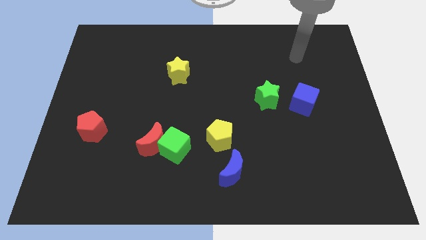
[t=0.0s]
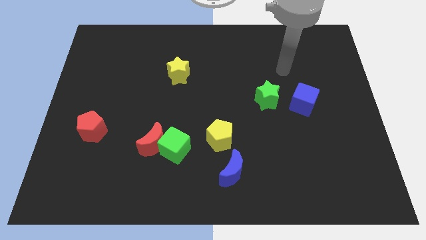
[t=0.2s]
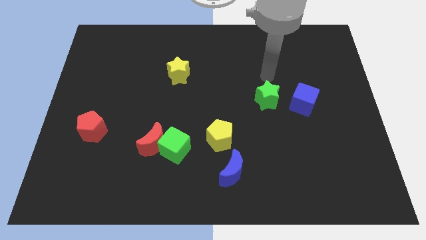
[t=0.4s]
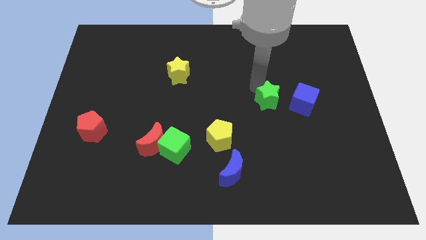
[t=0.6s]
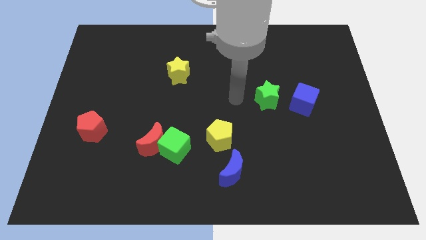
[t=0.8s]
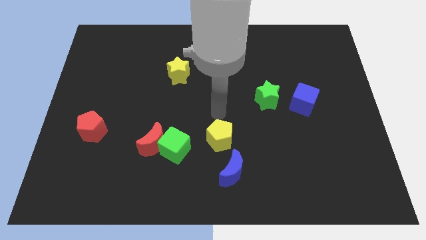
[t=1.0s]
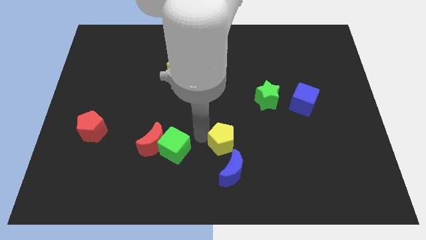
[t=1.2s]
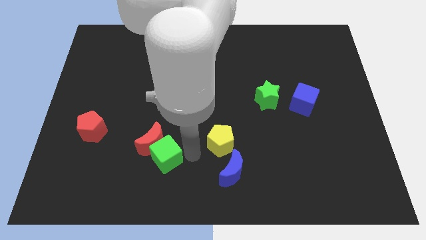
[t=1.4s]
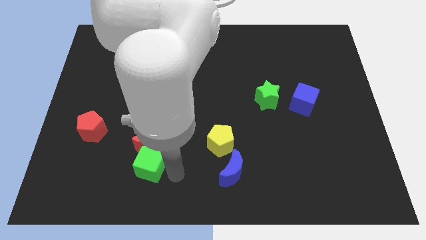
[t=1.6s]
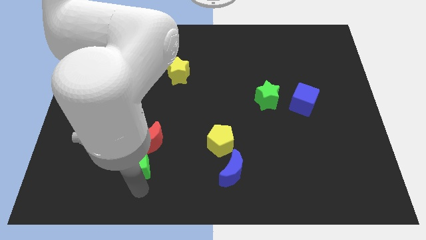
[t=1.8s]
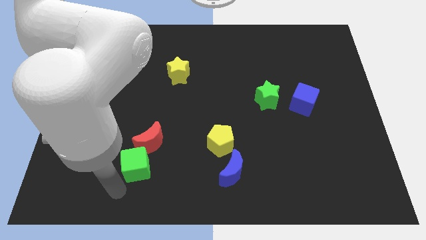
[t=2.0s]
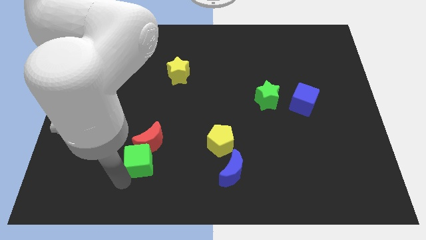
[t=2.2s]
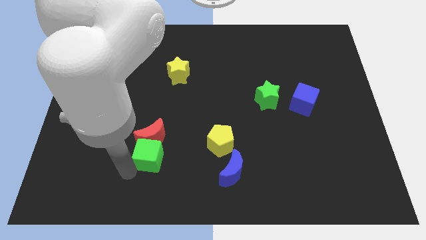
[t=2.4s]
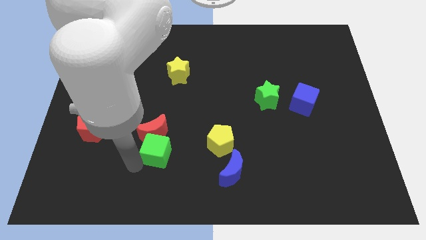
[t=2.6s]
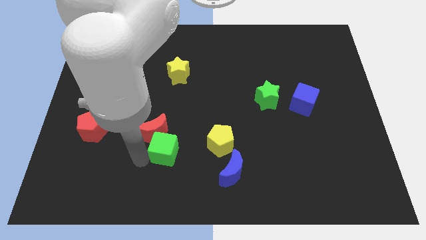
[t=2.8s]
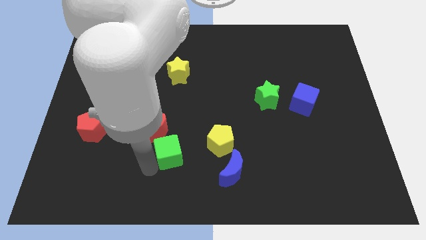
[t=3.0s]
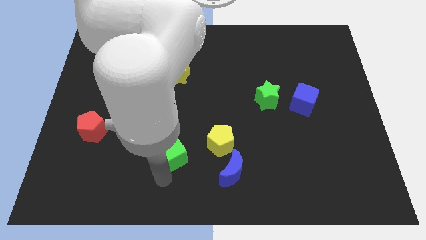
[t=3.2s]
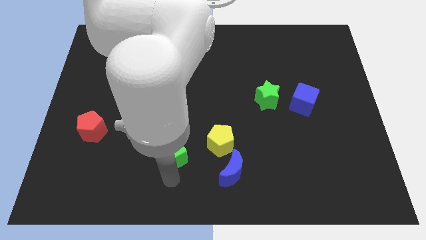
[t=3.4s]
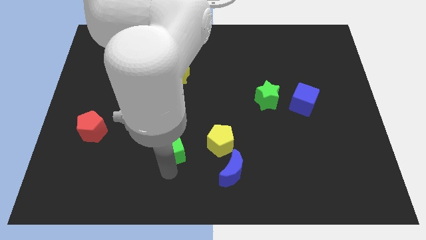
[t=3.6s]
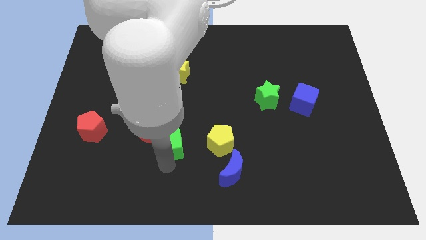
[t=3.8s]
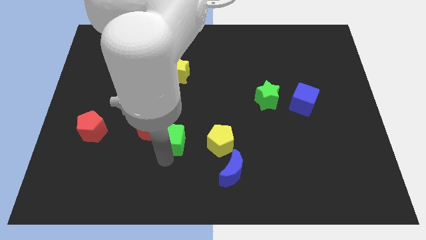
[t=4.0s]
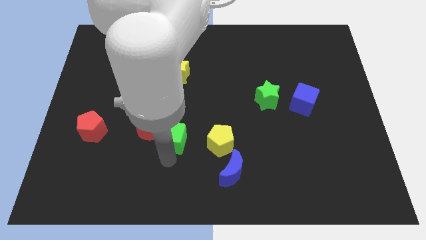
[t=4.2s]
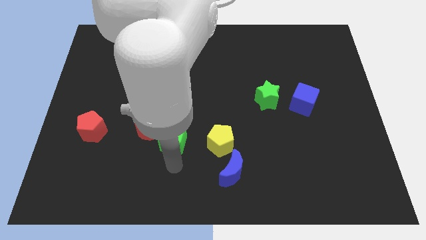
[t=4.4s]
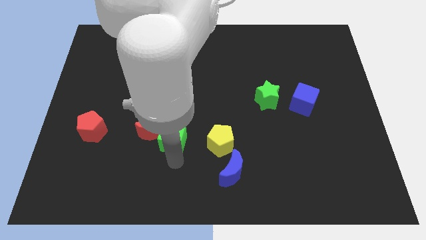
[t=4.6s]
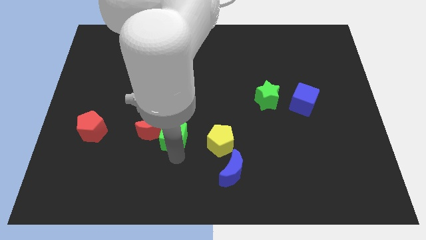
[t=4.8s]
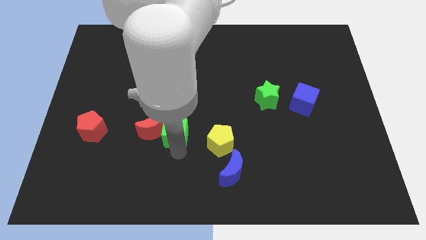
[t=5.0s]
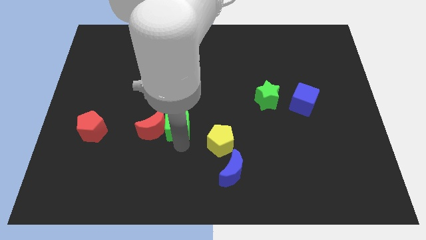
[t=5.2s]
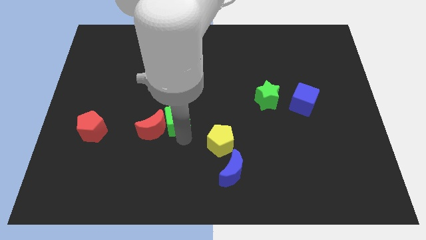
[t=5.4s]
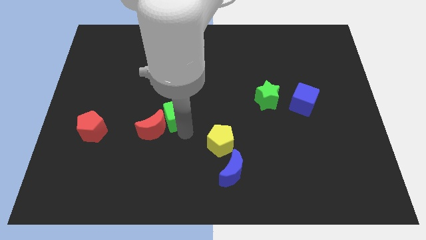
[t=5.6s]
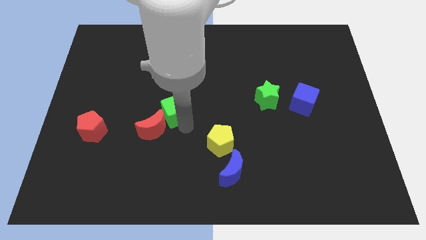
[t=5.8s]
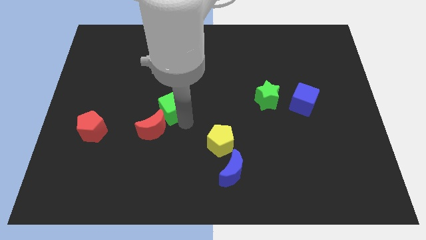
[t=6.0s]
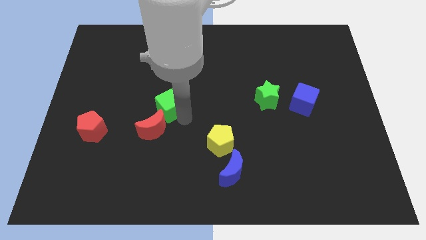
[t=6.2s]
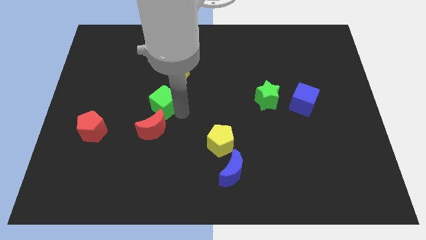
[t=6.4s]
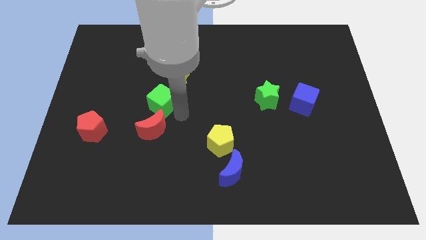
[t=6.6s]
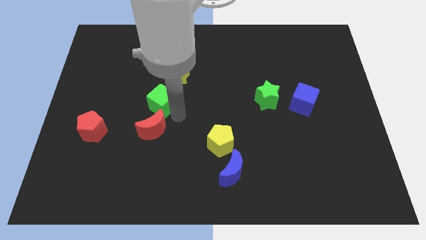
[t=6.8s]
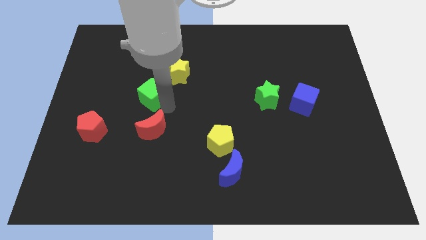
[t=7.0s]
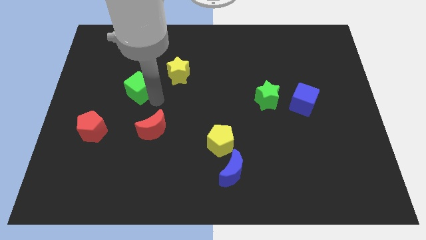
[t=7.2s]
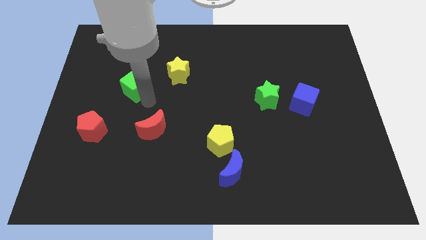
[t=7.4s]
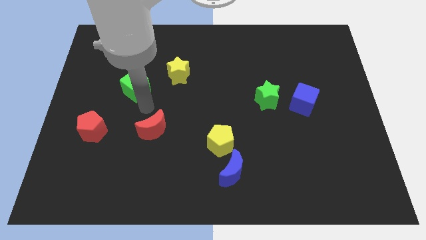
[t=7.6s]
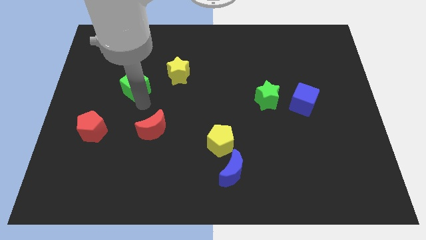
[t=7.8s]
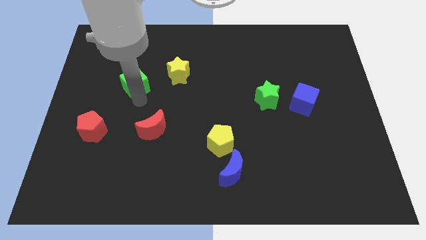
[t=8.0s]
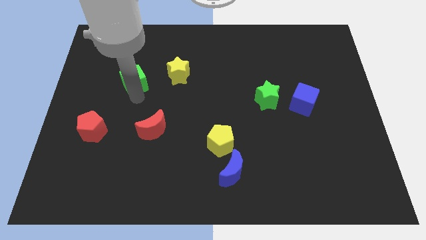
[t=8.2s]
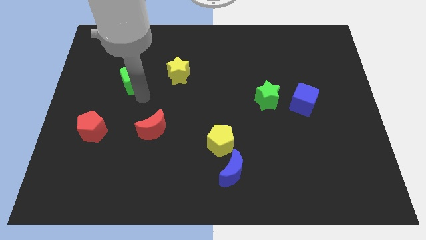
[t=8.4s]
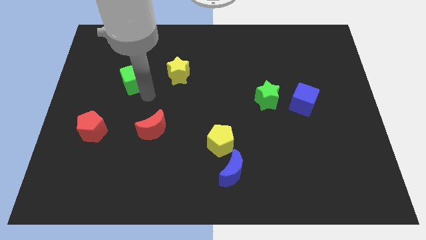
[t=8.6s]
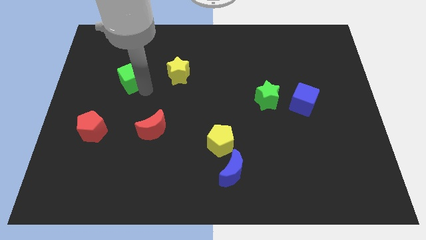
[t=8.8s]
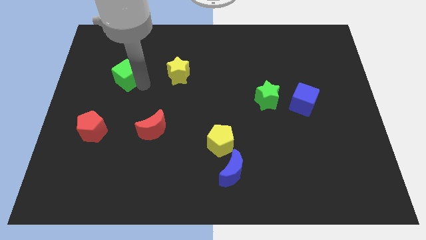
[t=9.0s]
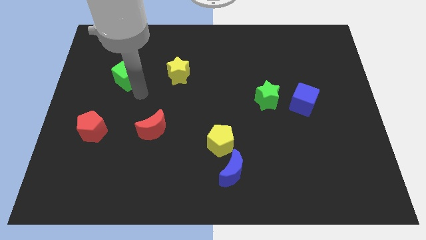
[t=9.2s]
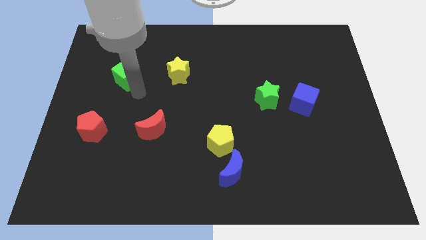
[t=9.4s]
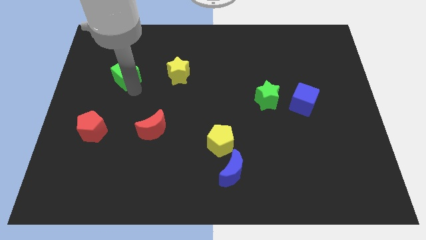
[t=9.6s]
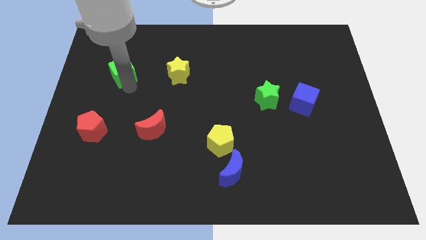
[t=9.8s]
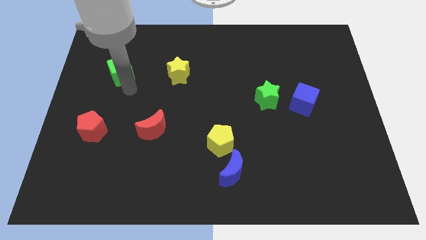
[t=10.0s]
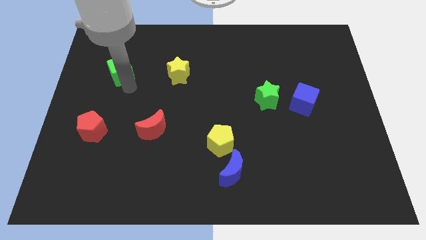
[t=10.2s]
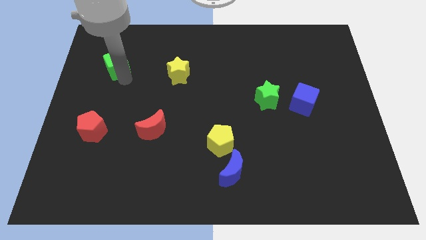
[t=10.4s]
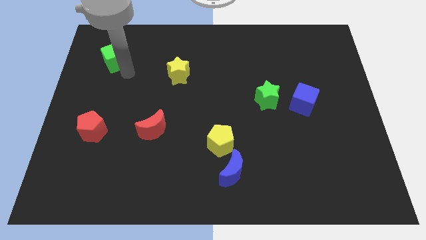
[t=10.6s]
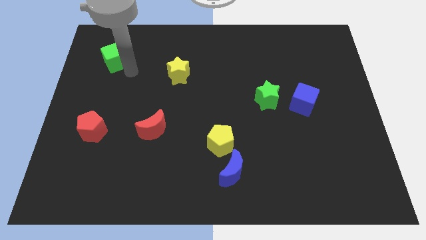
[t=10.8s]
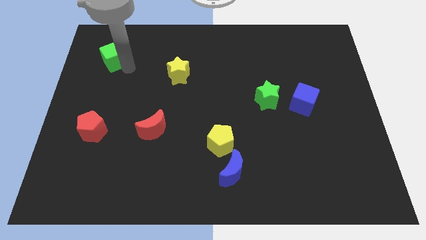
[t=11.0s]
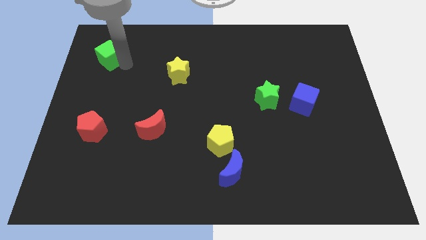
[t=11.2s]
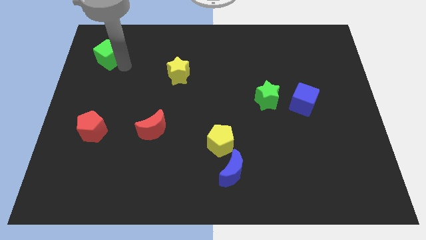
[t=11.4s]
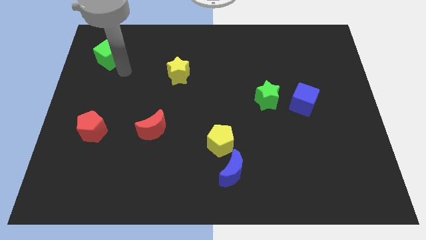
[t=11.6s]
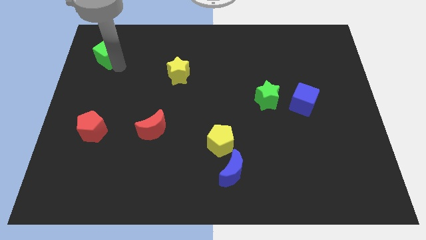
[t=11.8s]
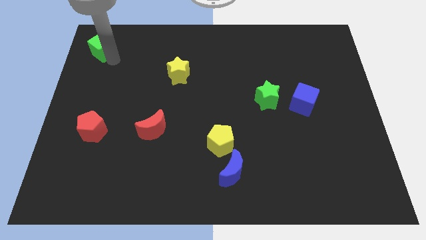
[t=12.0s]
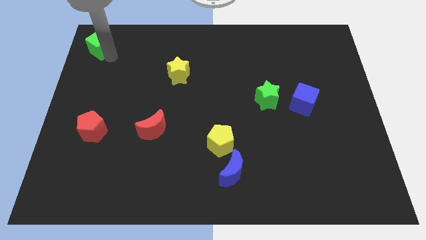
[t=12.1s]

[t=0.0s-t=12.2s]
put the green cube to the top left of the board

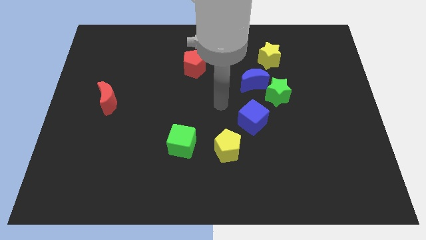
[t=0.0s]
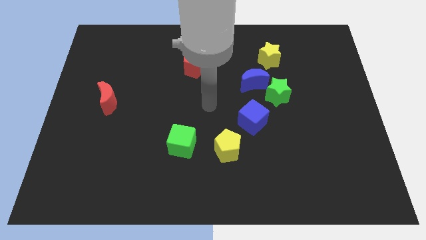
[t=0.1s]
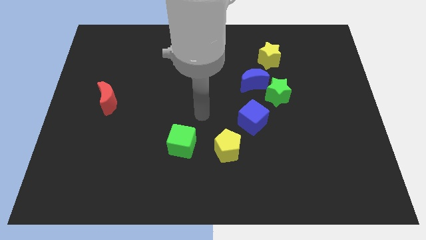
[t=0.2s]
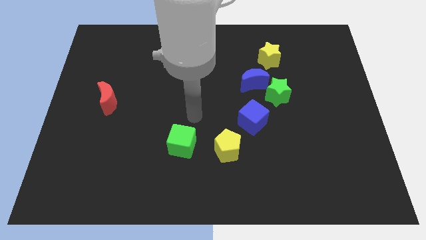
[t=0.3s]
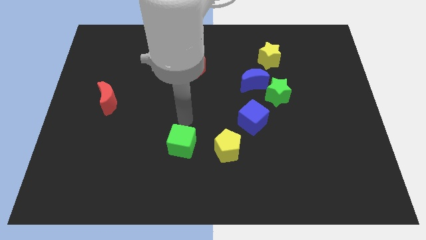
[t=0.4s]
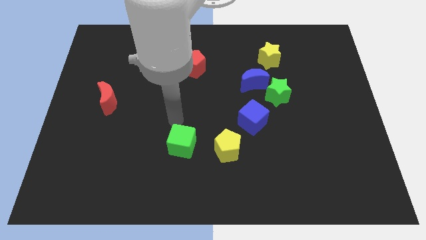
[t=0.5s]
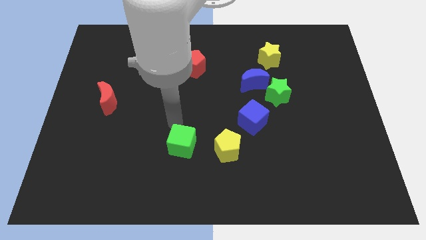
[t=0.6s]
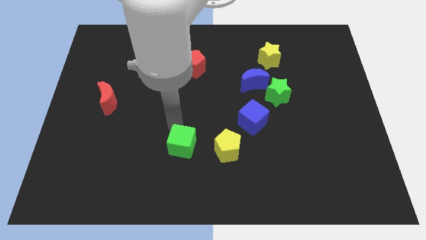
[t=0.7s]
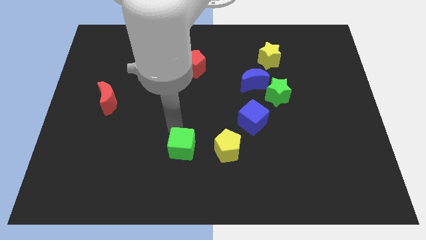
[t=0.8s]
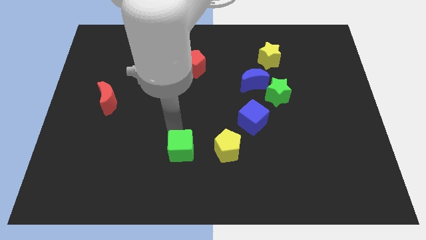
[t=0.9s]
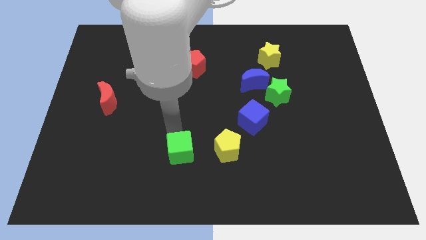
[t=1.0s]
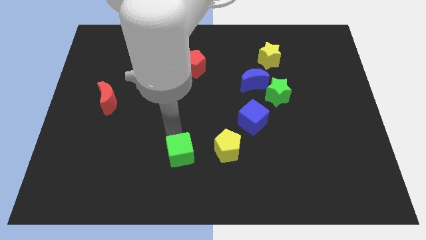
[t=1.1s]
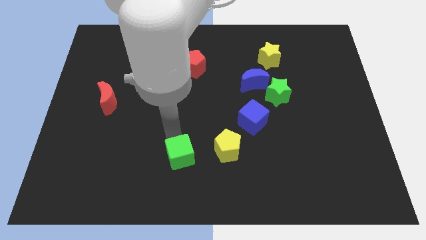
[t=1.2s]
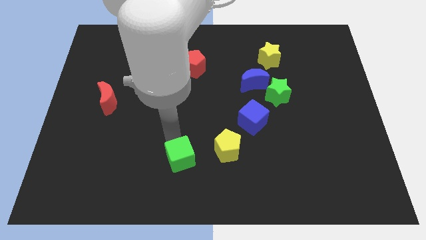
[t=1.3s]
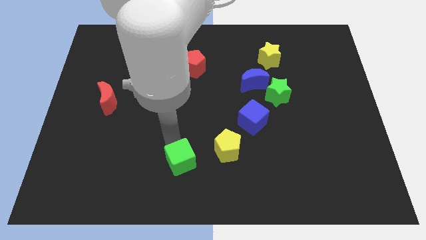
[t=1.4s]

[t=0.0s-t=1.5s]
slide the green cube to the bottom side

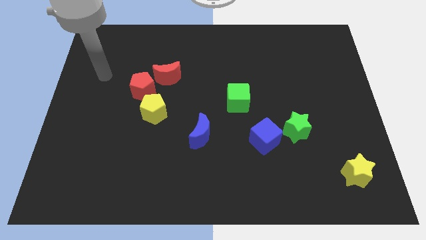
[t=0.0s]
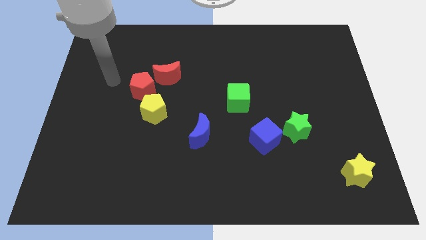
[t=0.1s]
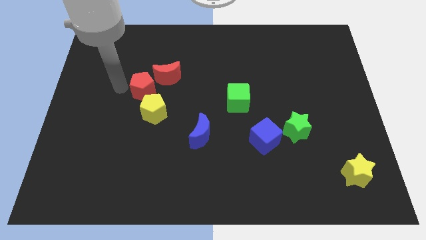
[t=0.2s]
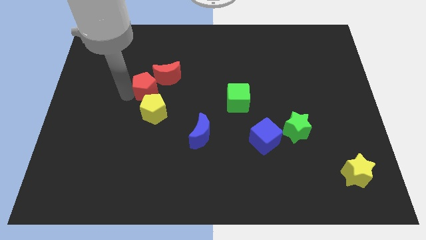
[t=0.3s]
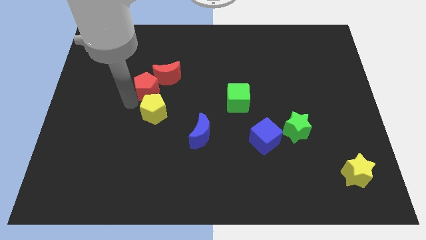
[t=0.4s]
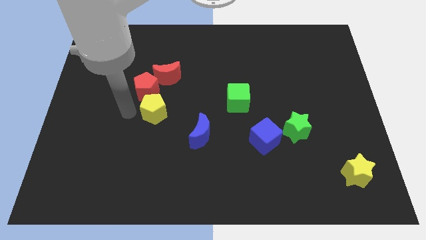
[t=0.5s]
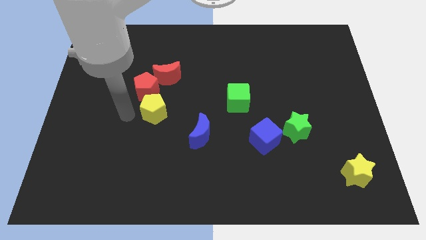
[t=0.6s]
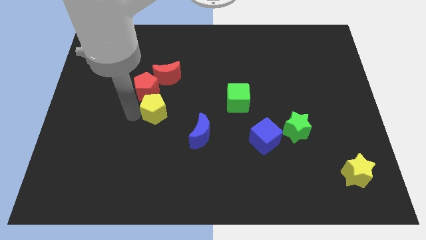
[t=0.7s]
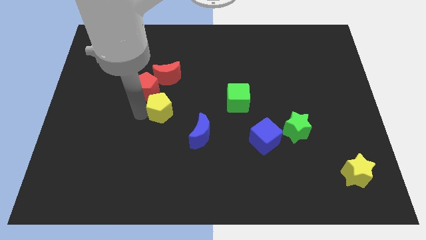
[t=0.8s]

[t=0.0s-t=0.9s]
move the yellow pentagon to the center of the board
